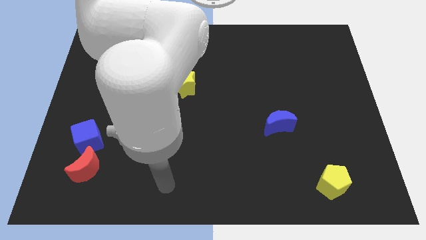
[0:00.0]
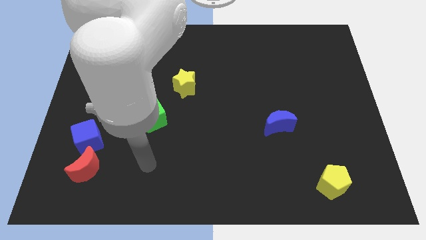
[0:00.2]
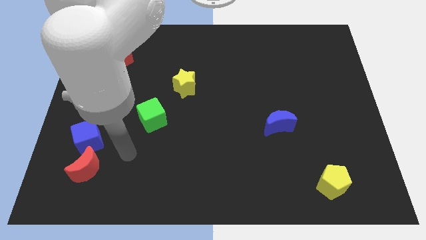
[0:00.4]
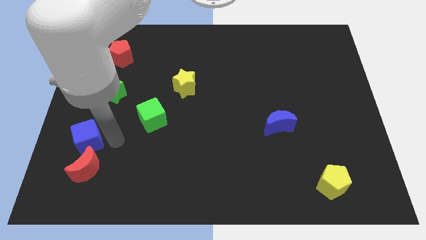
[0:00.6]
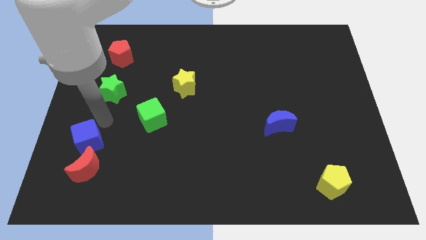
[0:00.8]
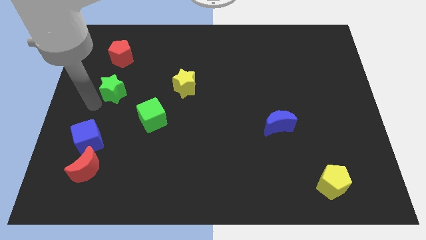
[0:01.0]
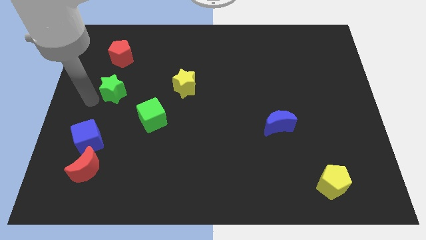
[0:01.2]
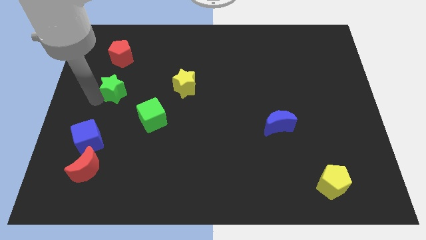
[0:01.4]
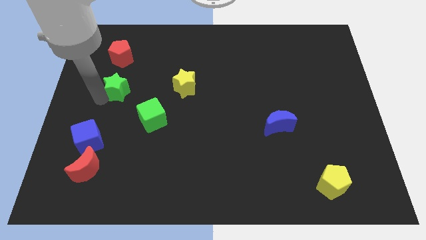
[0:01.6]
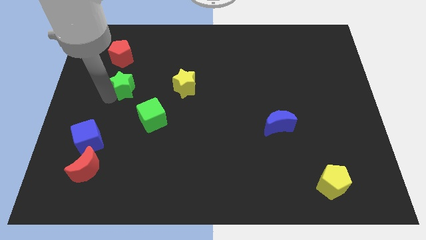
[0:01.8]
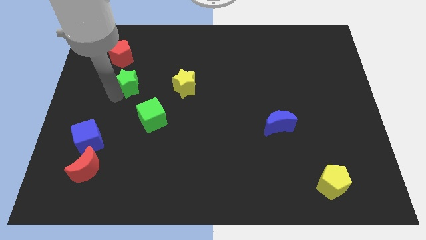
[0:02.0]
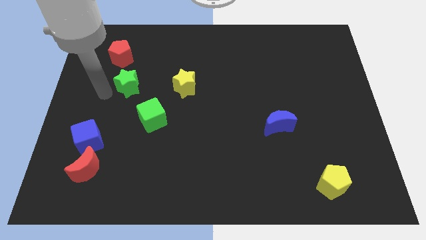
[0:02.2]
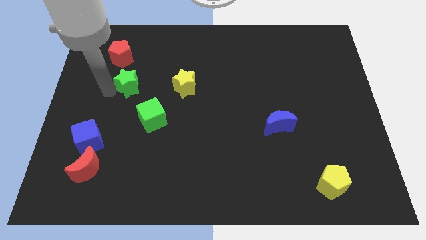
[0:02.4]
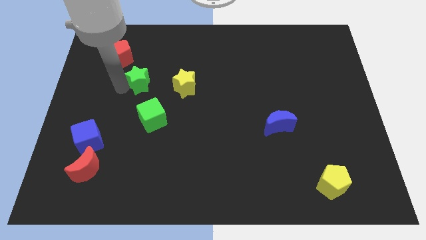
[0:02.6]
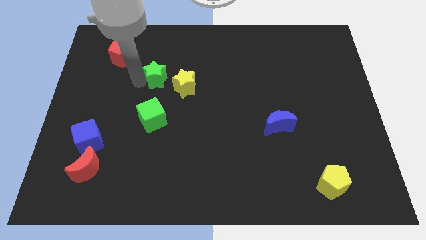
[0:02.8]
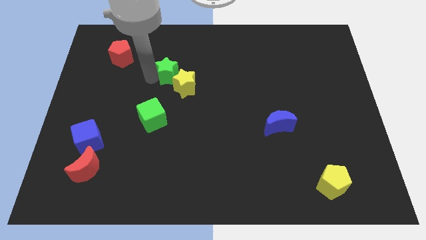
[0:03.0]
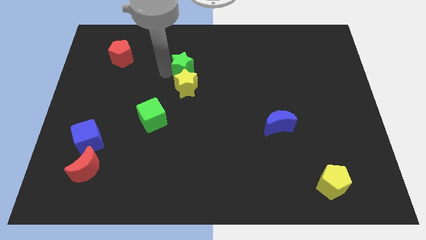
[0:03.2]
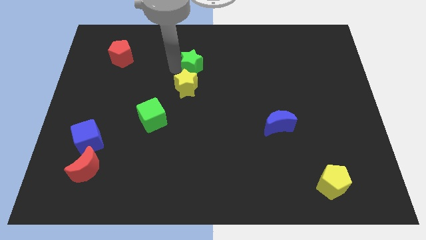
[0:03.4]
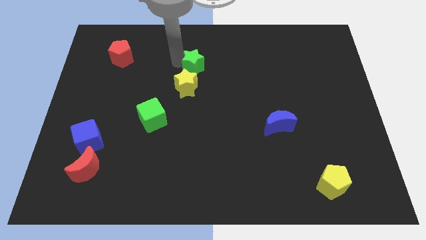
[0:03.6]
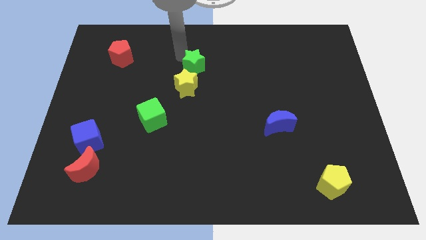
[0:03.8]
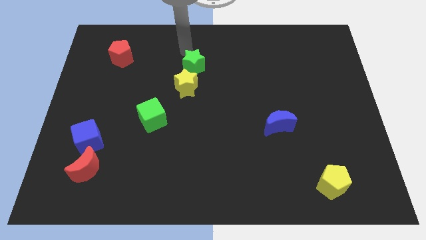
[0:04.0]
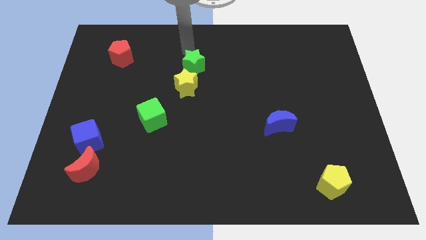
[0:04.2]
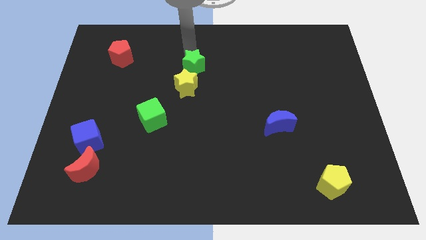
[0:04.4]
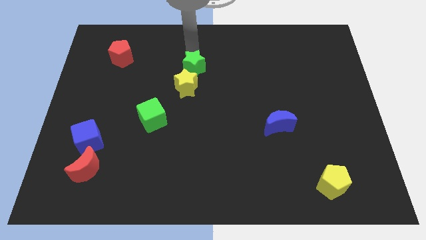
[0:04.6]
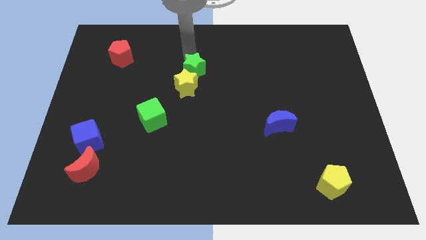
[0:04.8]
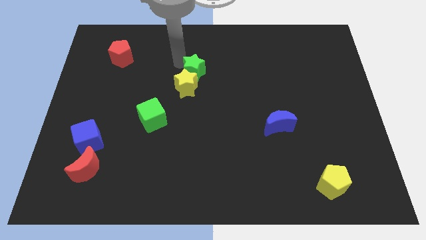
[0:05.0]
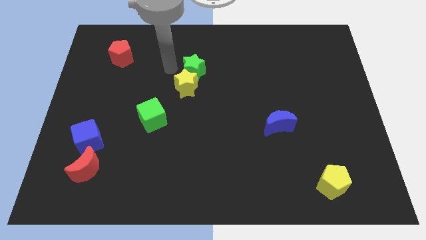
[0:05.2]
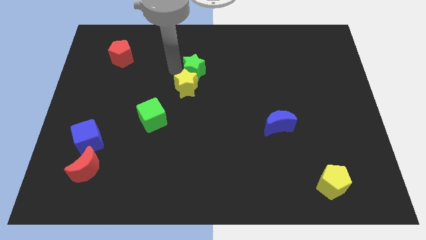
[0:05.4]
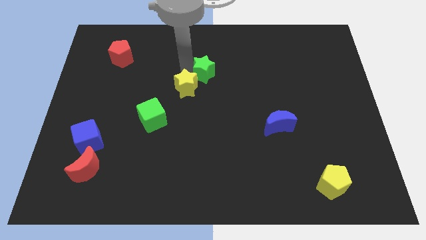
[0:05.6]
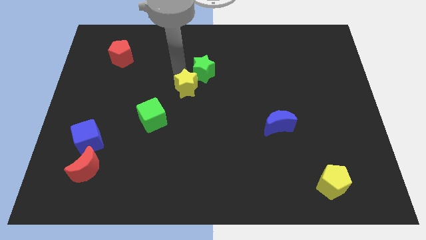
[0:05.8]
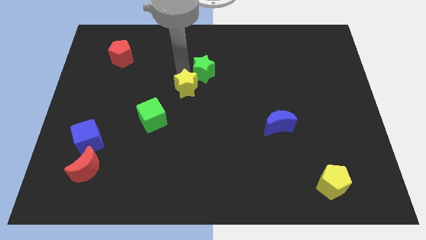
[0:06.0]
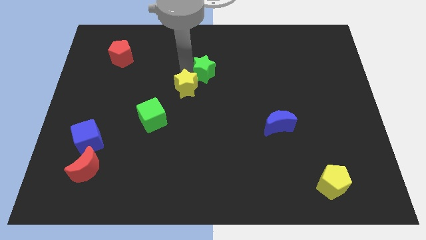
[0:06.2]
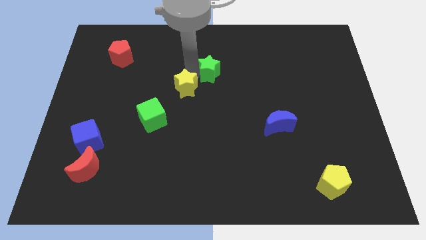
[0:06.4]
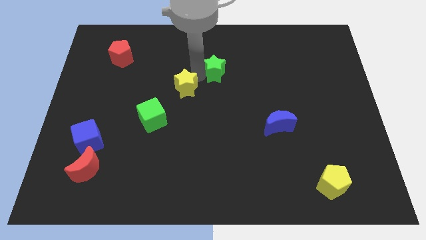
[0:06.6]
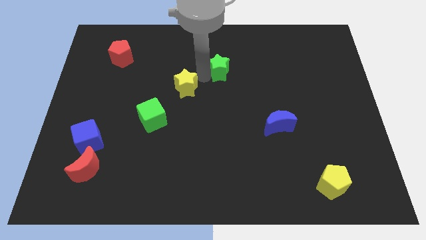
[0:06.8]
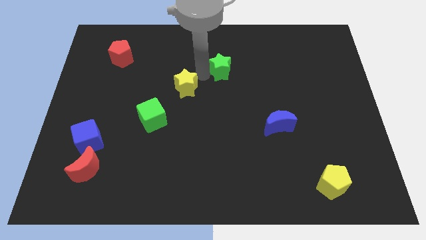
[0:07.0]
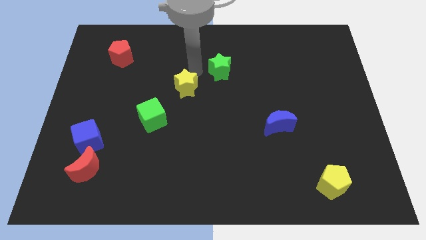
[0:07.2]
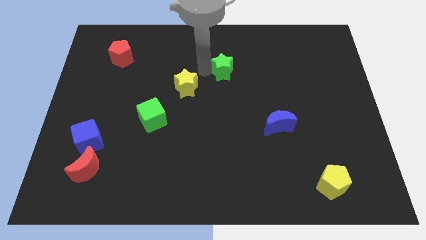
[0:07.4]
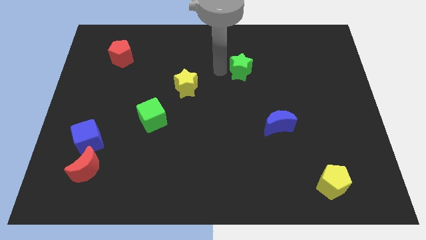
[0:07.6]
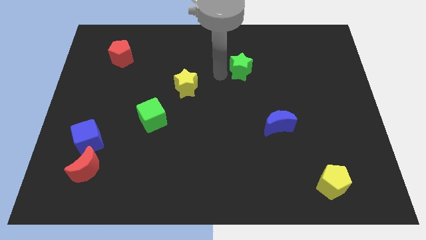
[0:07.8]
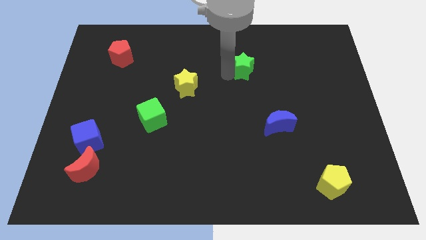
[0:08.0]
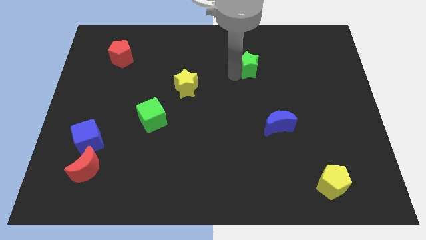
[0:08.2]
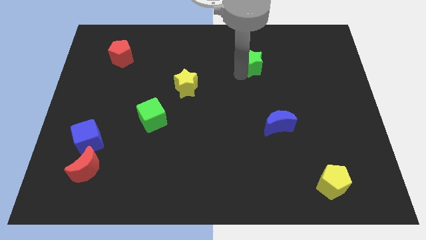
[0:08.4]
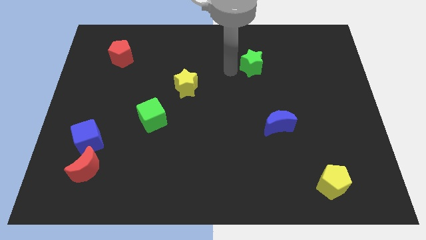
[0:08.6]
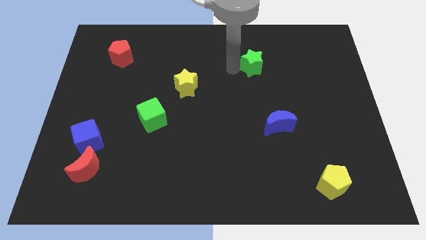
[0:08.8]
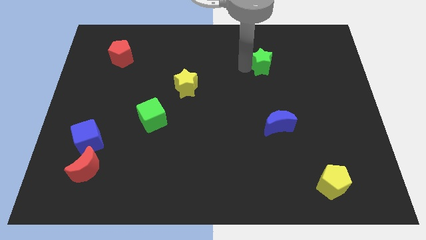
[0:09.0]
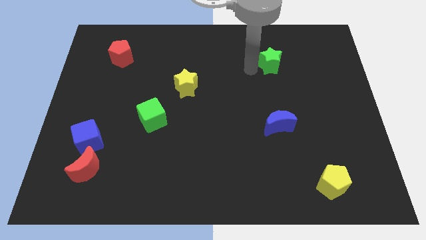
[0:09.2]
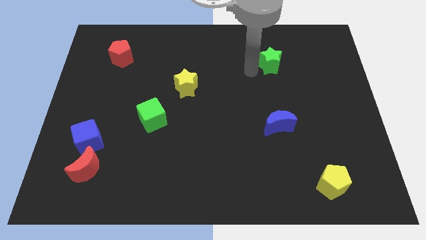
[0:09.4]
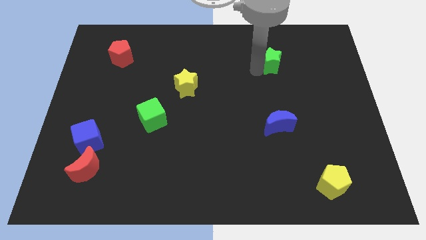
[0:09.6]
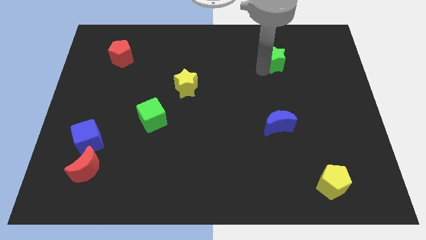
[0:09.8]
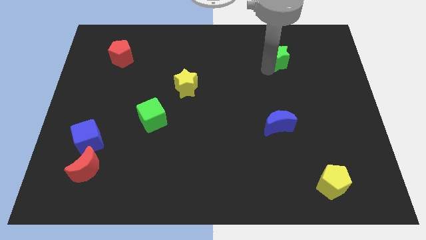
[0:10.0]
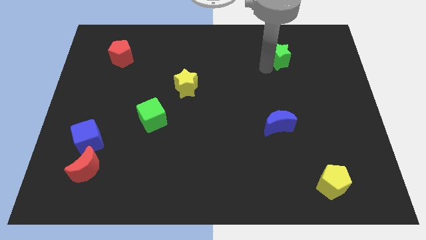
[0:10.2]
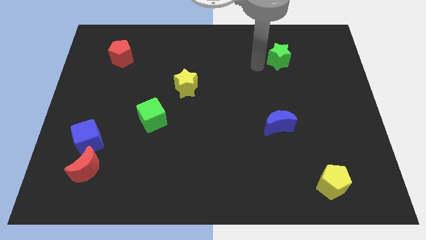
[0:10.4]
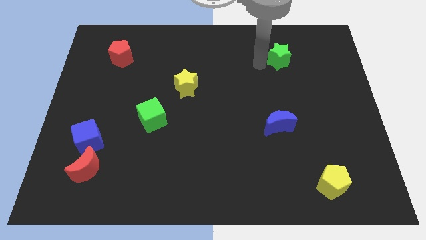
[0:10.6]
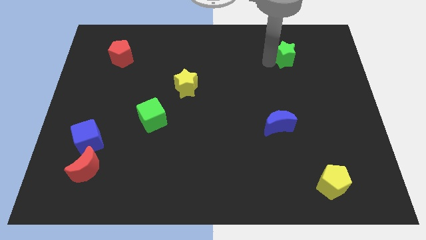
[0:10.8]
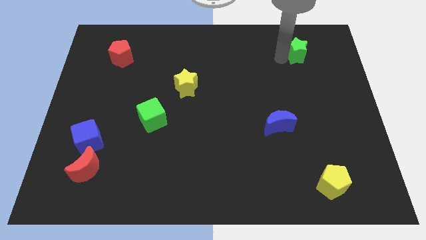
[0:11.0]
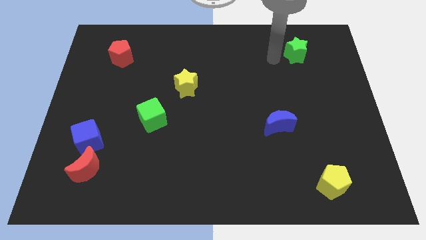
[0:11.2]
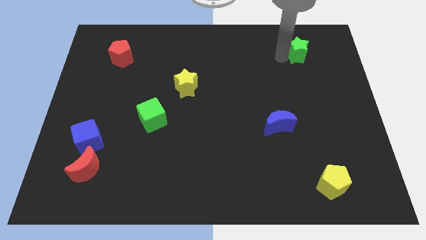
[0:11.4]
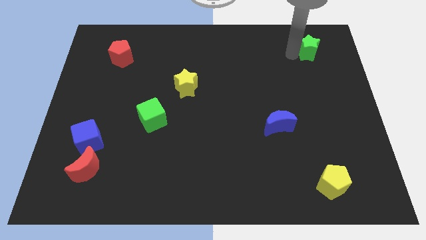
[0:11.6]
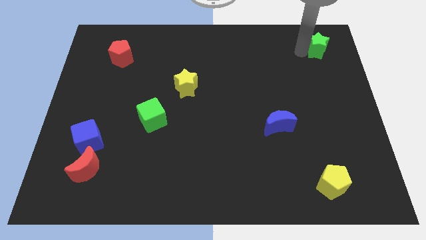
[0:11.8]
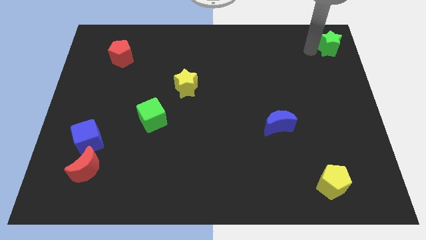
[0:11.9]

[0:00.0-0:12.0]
put the green star to the top right

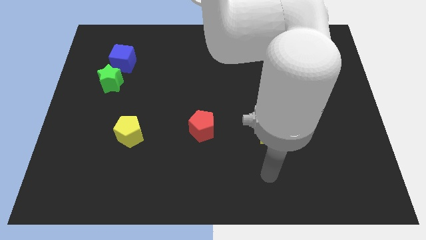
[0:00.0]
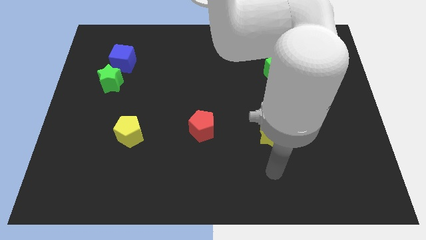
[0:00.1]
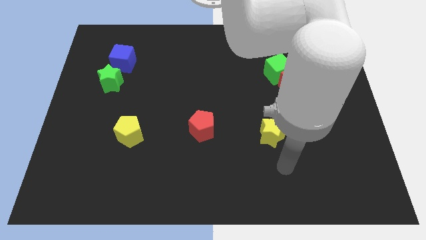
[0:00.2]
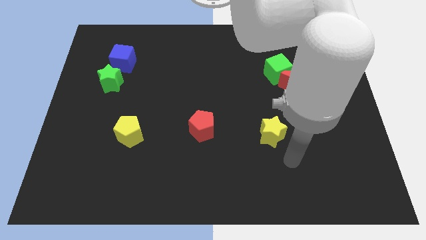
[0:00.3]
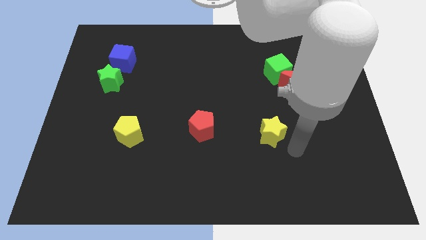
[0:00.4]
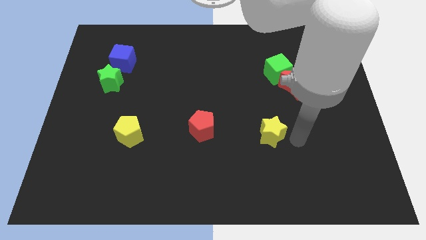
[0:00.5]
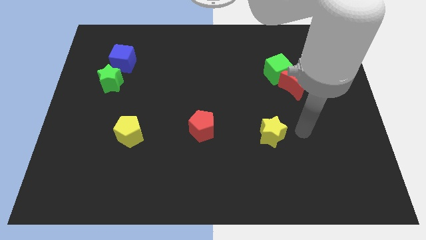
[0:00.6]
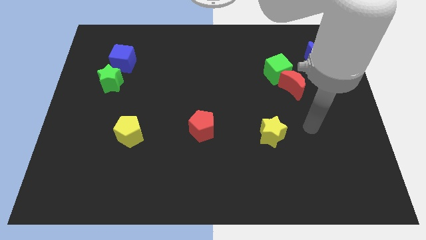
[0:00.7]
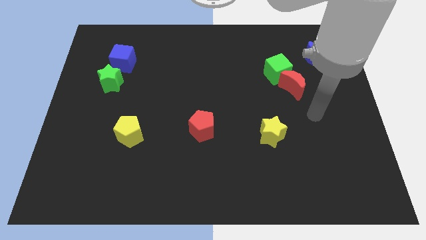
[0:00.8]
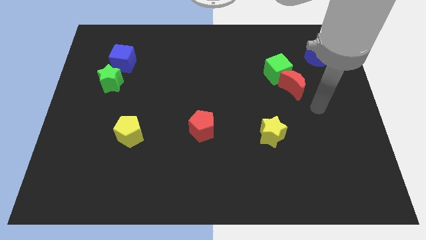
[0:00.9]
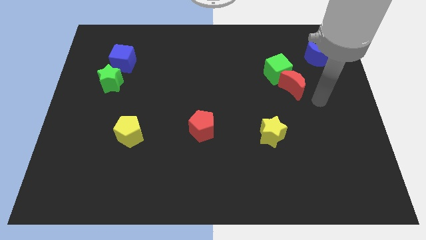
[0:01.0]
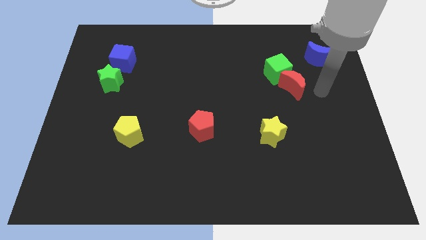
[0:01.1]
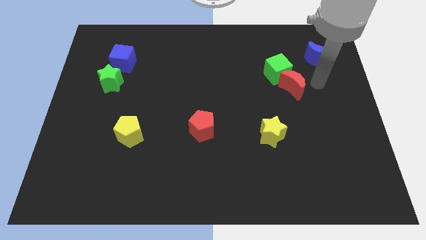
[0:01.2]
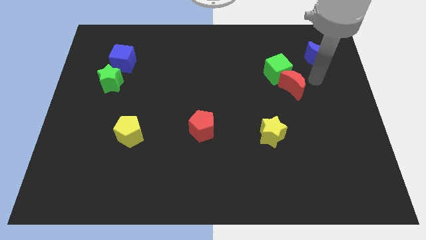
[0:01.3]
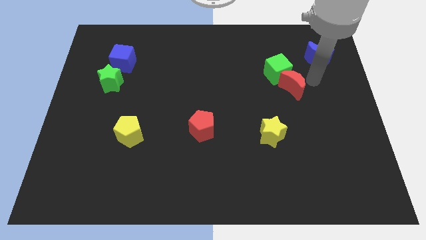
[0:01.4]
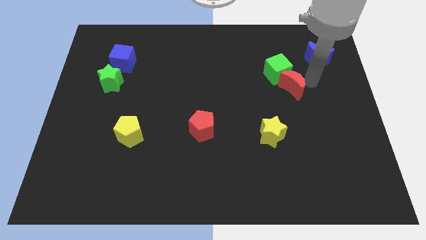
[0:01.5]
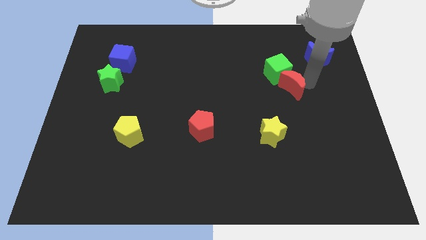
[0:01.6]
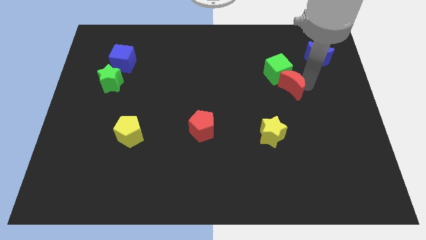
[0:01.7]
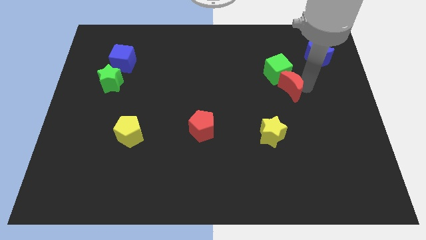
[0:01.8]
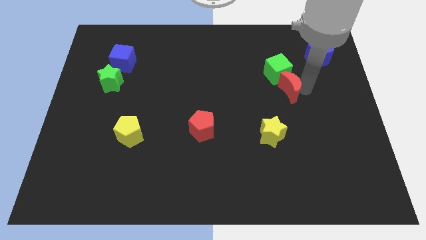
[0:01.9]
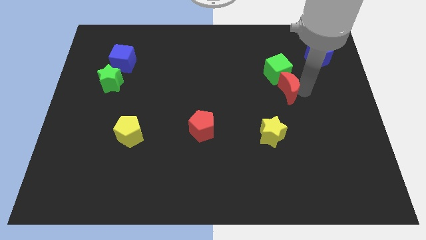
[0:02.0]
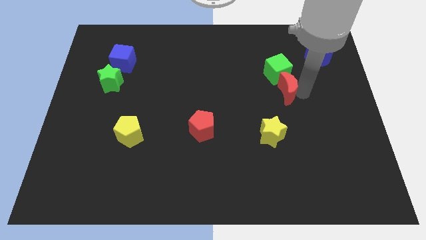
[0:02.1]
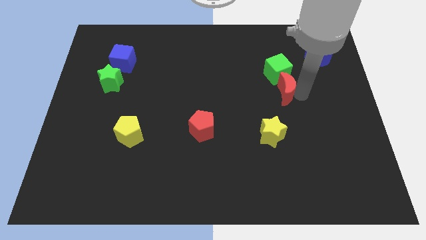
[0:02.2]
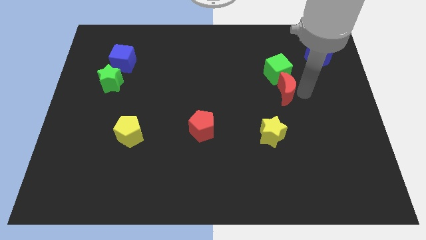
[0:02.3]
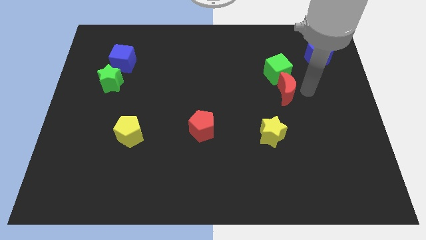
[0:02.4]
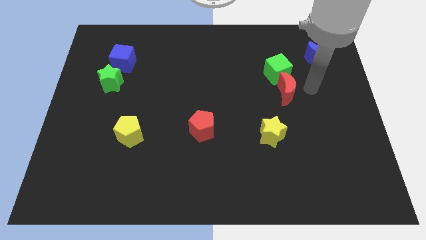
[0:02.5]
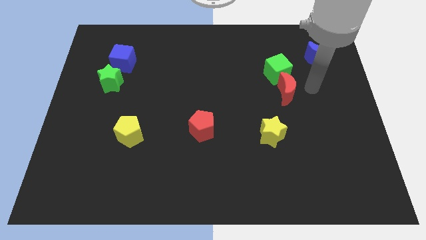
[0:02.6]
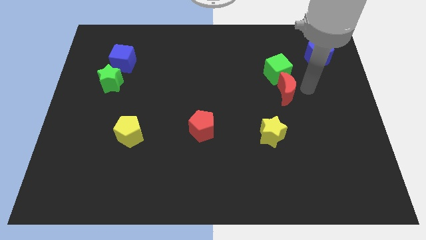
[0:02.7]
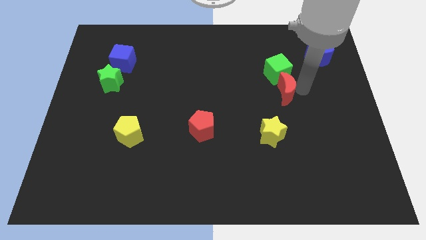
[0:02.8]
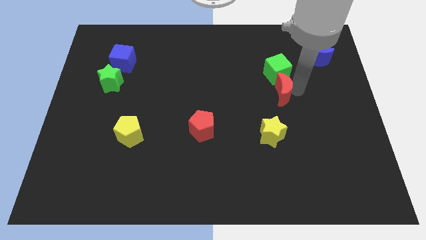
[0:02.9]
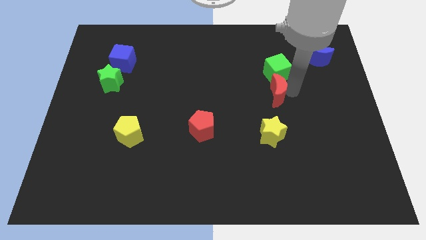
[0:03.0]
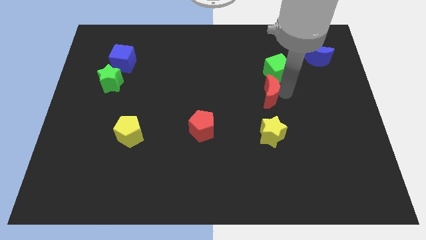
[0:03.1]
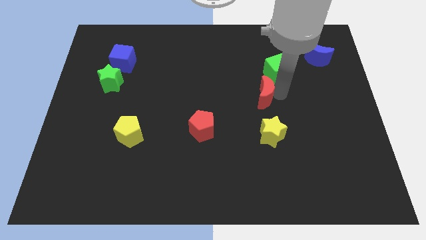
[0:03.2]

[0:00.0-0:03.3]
put the red moon to the center
